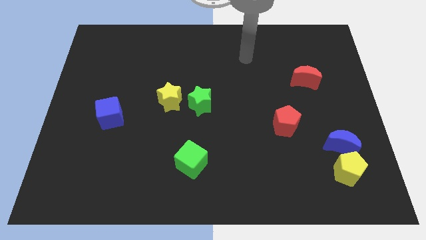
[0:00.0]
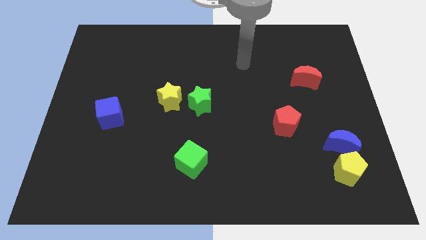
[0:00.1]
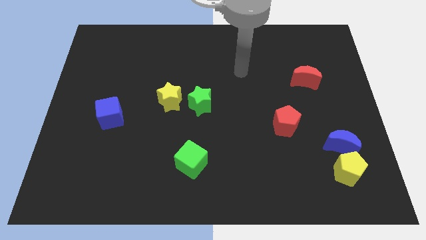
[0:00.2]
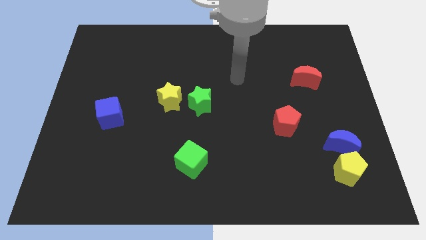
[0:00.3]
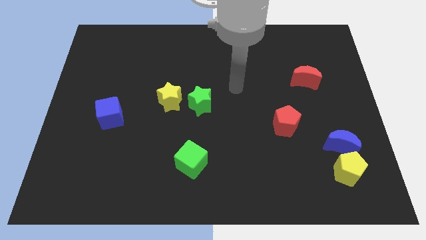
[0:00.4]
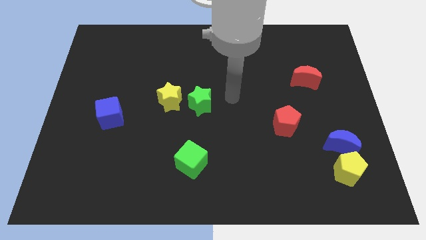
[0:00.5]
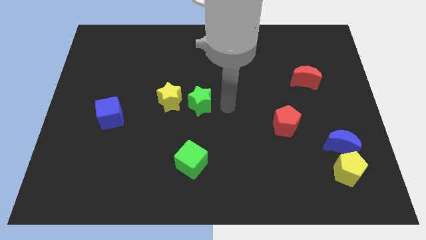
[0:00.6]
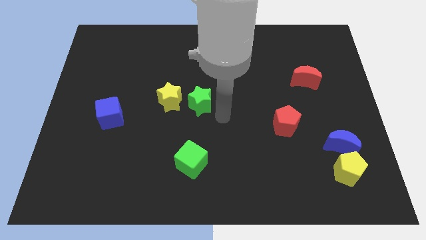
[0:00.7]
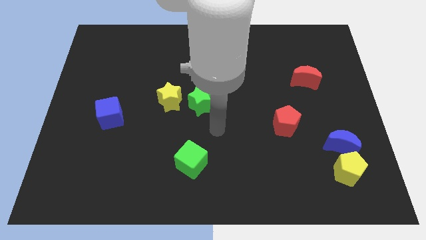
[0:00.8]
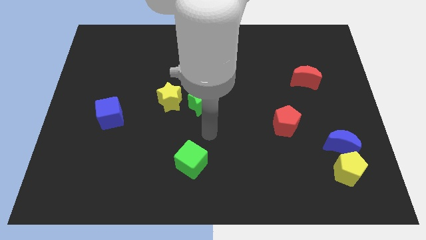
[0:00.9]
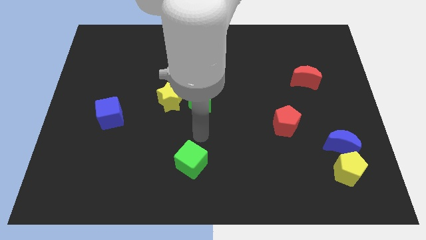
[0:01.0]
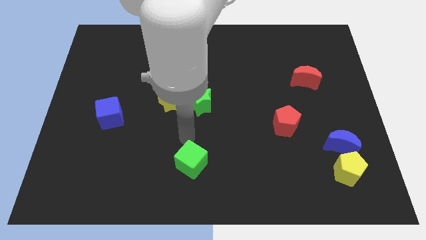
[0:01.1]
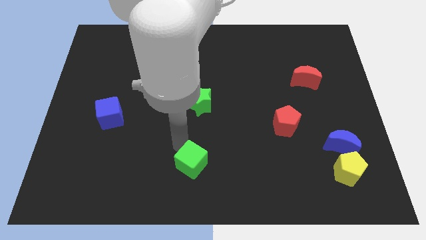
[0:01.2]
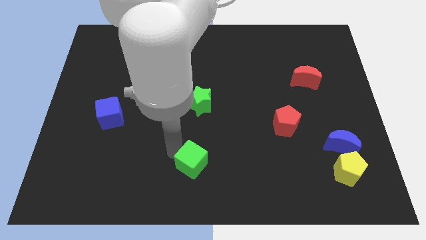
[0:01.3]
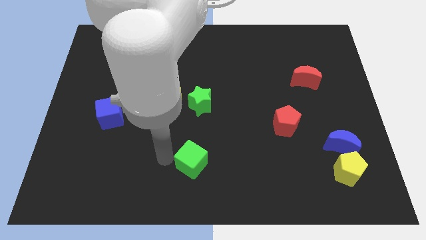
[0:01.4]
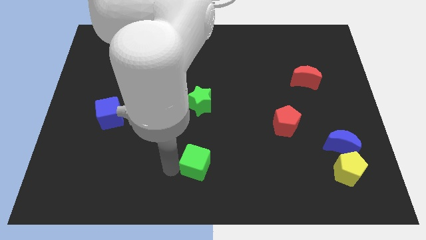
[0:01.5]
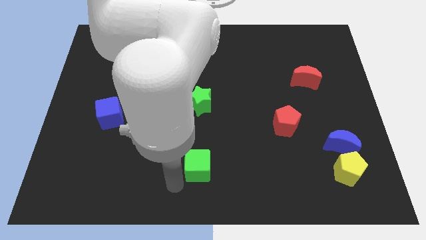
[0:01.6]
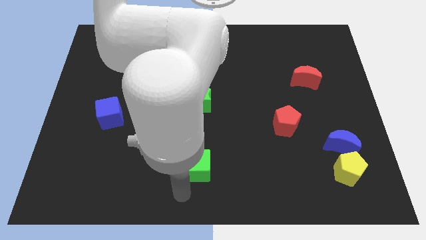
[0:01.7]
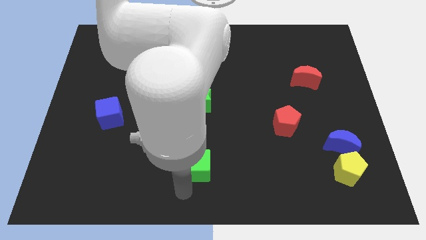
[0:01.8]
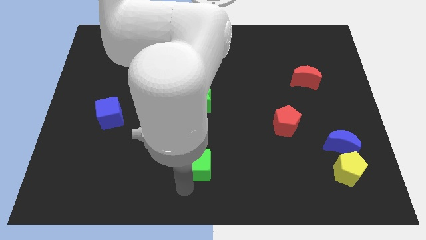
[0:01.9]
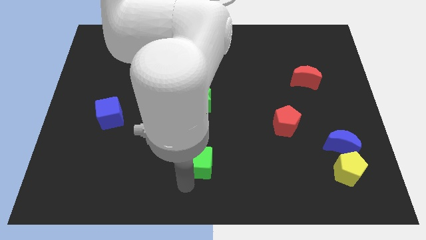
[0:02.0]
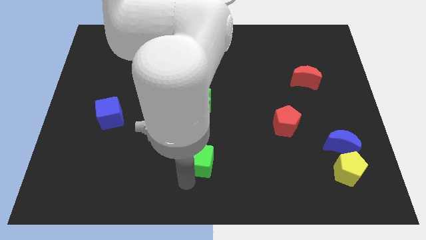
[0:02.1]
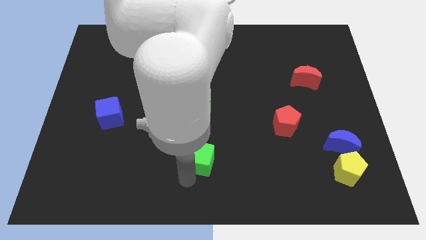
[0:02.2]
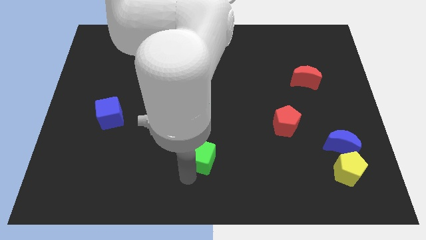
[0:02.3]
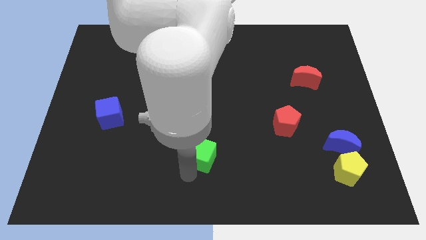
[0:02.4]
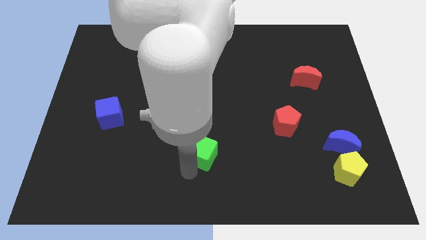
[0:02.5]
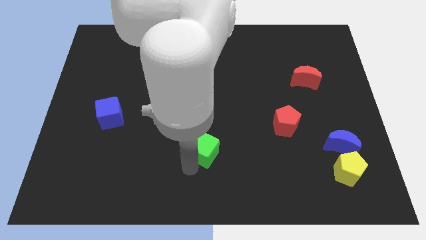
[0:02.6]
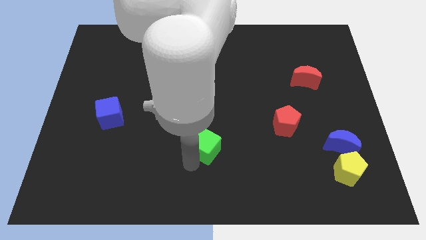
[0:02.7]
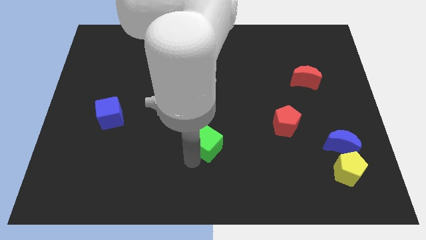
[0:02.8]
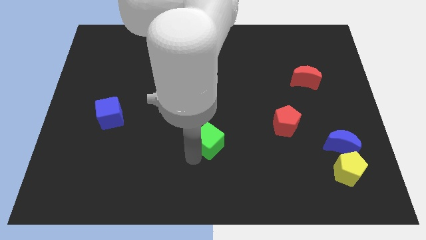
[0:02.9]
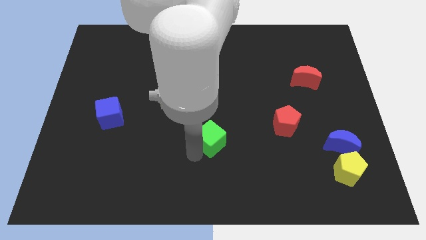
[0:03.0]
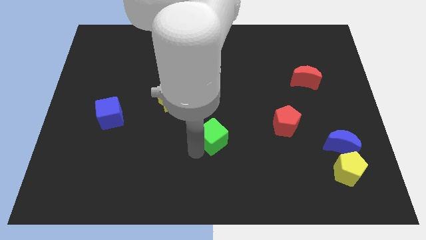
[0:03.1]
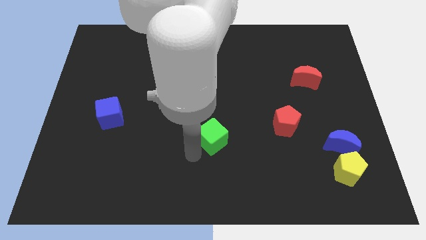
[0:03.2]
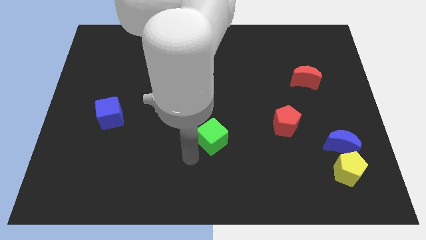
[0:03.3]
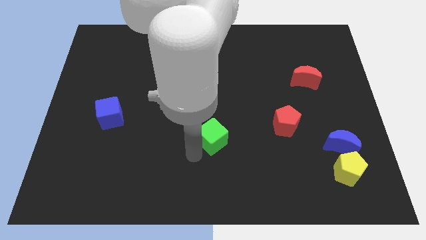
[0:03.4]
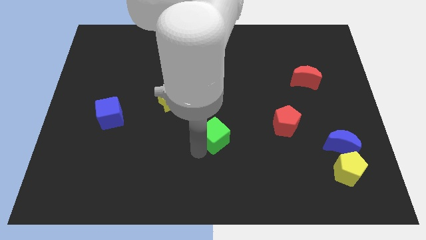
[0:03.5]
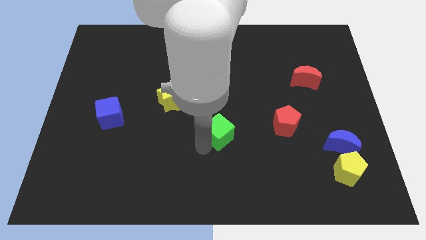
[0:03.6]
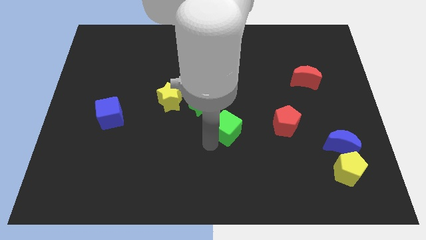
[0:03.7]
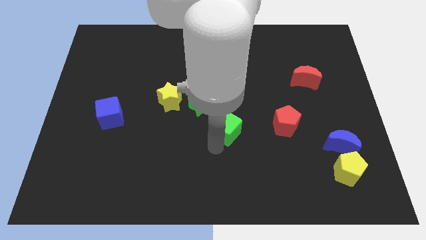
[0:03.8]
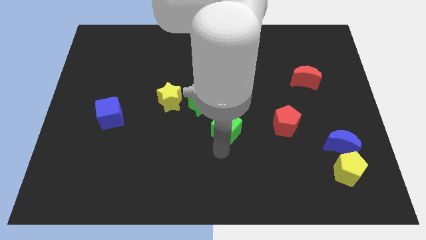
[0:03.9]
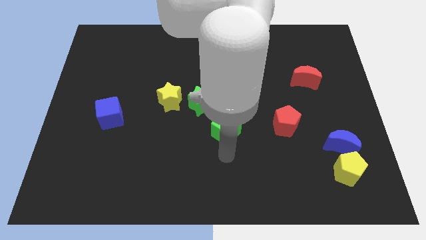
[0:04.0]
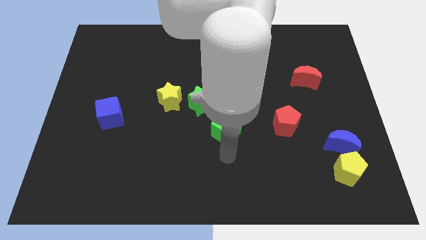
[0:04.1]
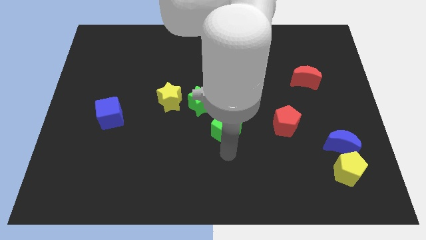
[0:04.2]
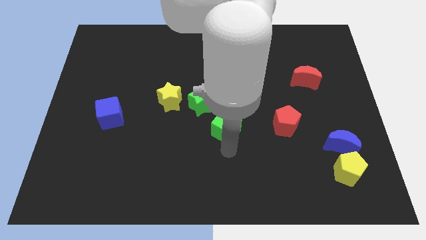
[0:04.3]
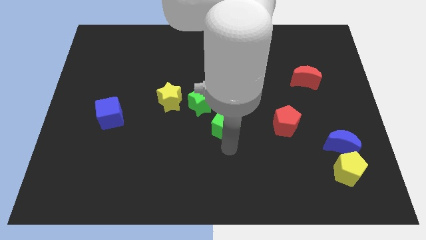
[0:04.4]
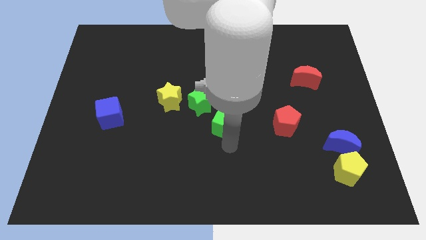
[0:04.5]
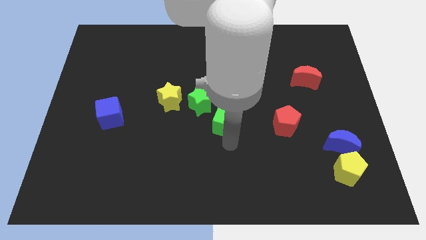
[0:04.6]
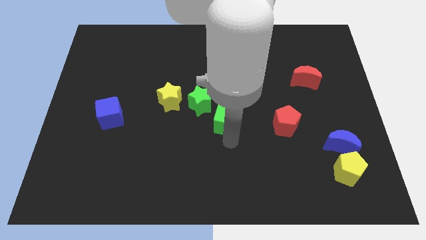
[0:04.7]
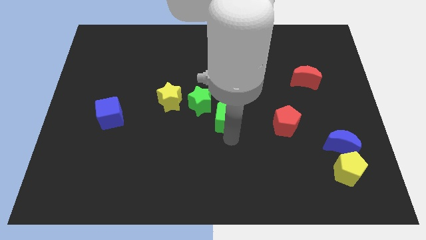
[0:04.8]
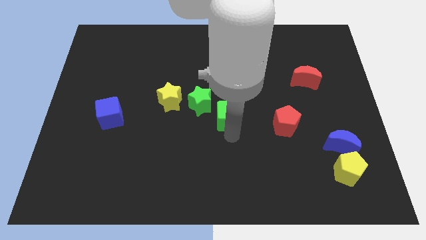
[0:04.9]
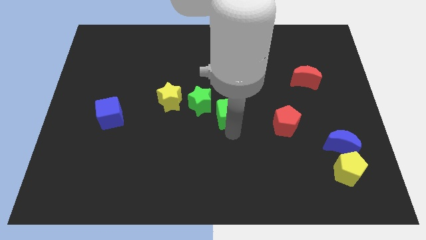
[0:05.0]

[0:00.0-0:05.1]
put the green cube just right of the yellow star

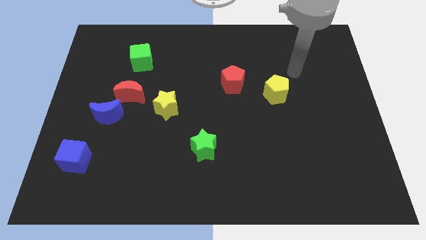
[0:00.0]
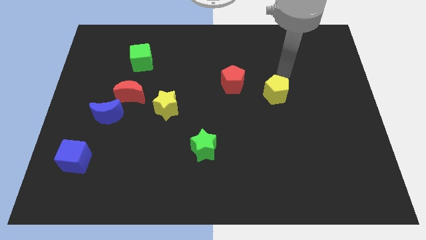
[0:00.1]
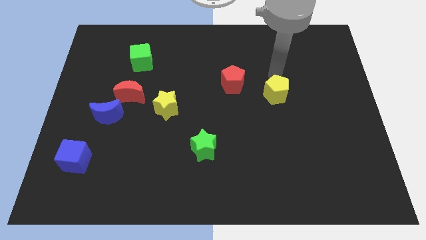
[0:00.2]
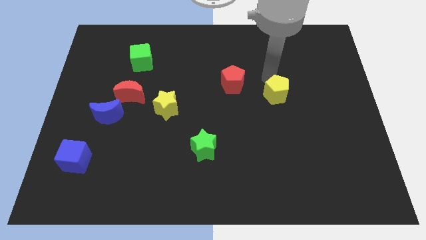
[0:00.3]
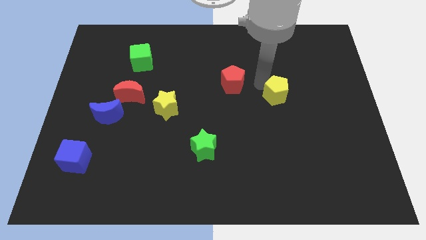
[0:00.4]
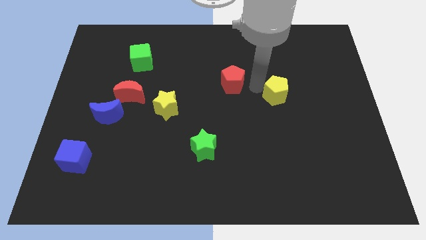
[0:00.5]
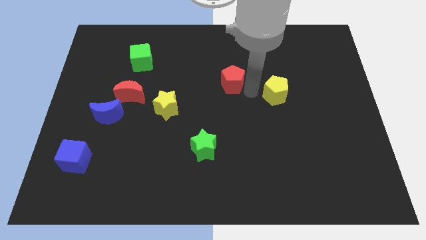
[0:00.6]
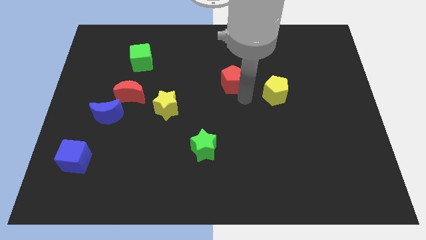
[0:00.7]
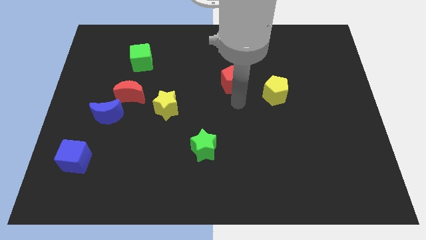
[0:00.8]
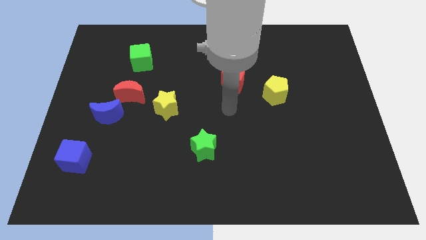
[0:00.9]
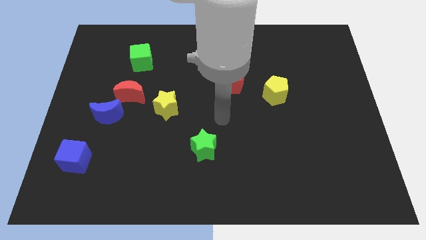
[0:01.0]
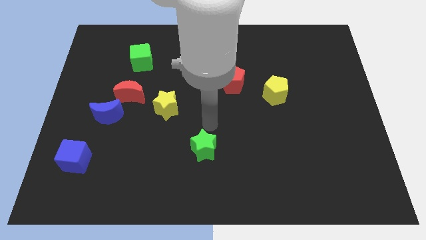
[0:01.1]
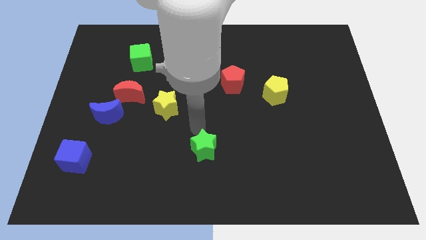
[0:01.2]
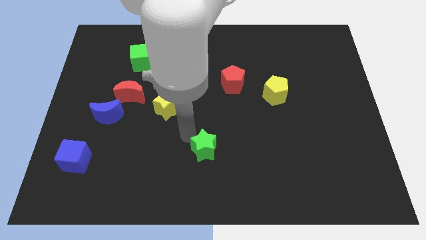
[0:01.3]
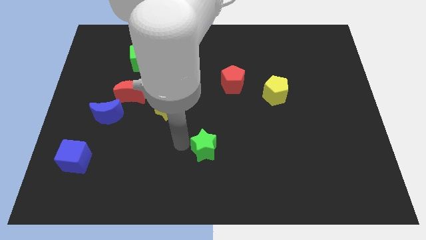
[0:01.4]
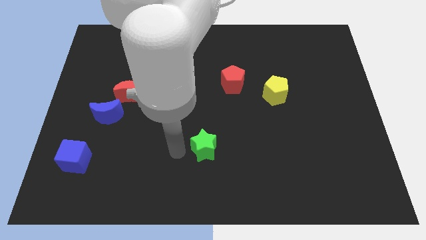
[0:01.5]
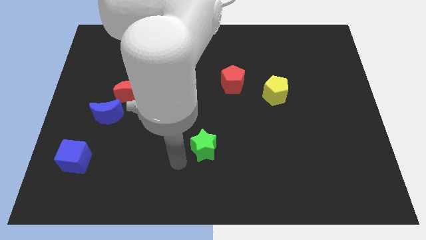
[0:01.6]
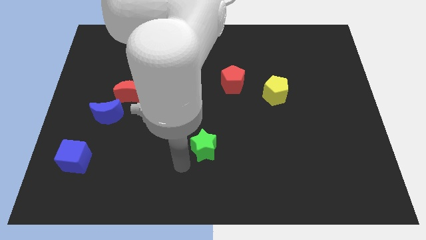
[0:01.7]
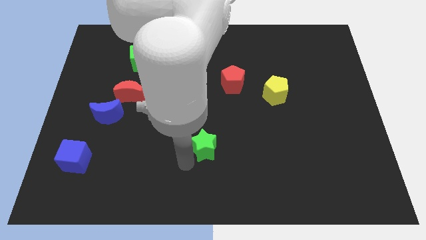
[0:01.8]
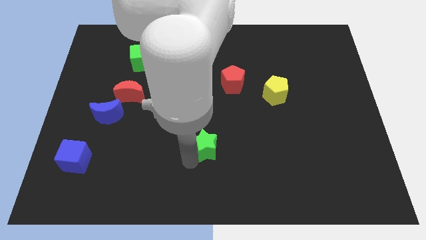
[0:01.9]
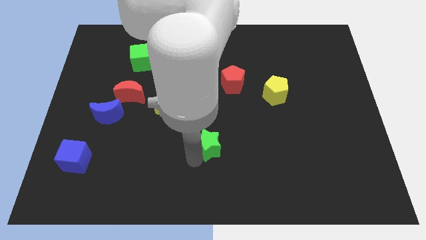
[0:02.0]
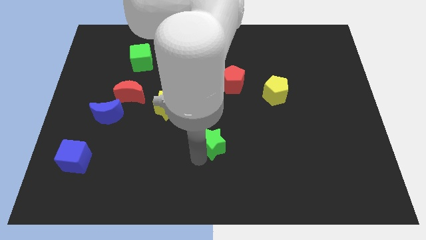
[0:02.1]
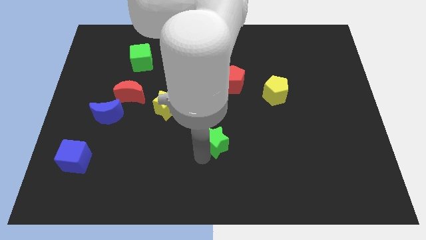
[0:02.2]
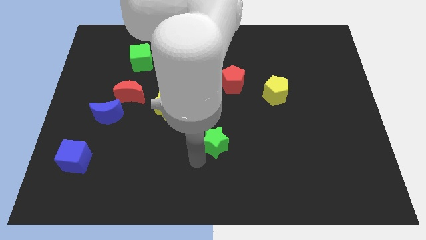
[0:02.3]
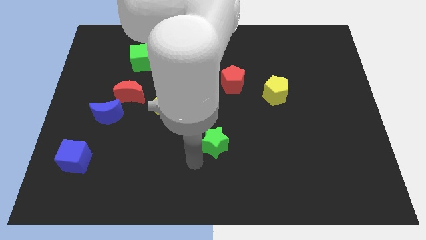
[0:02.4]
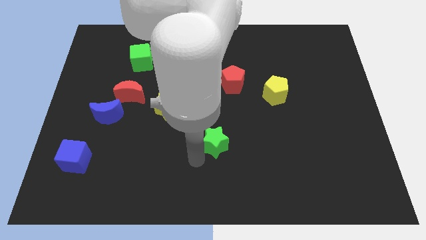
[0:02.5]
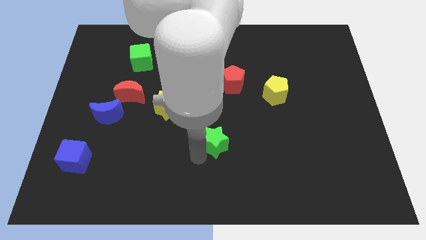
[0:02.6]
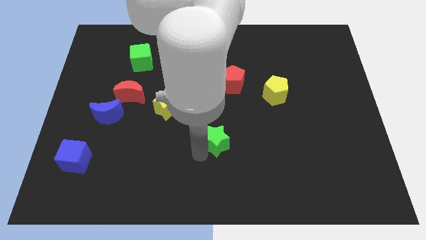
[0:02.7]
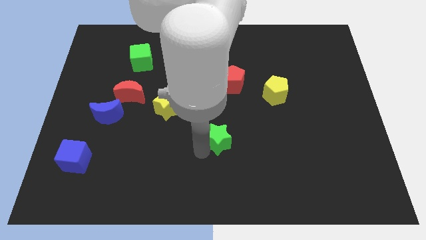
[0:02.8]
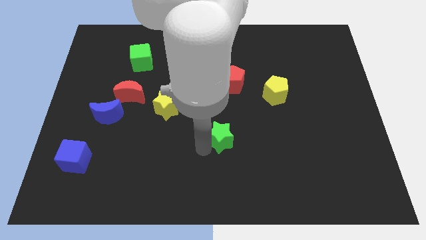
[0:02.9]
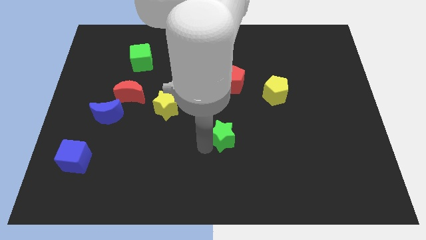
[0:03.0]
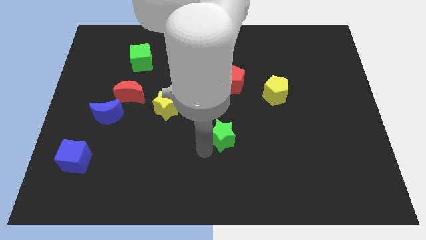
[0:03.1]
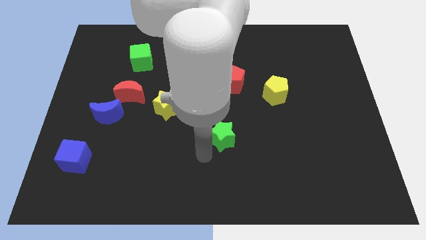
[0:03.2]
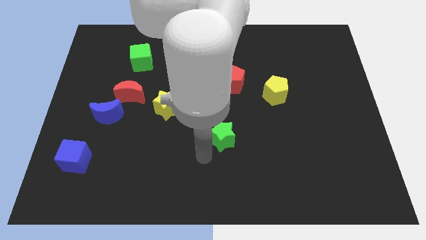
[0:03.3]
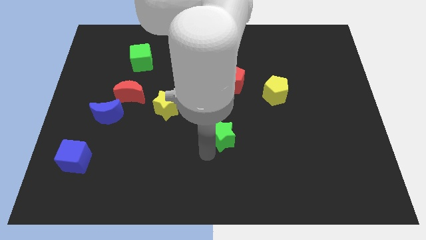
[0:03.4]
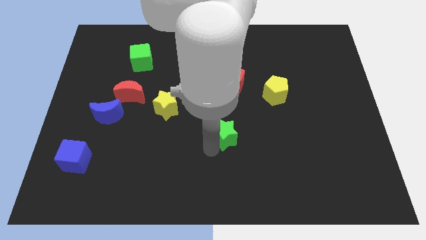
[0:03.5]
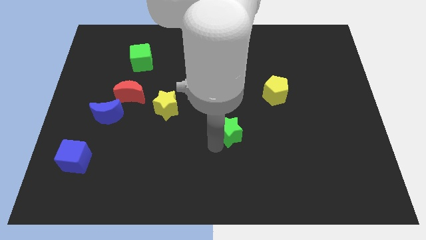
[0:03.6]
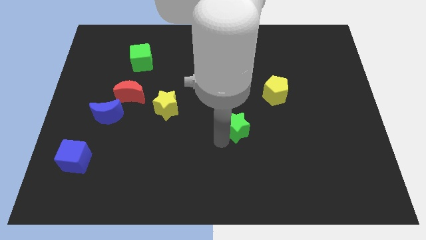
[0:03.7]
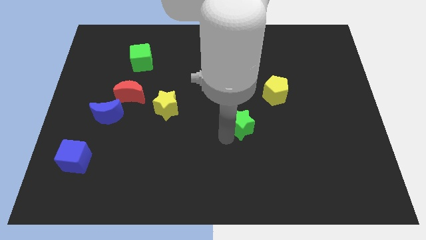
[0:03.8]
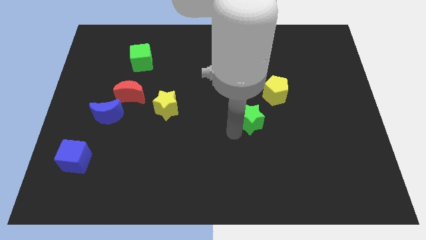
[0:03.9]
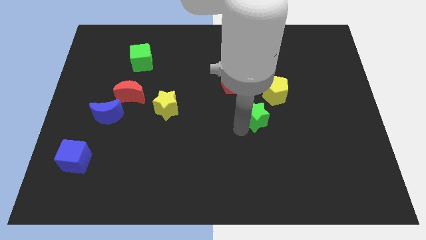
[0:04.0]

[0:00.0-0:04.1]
slide the green star to the bottom right side of the red pentagon
